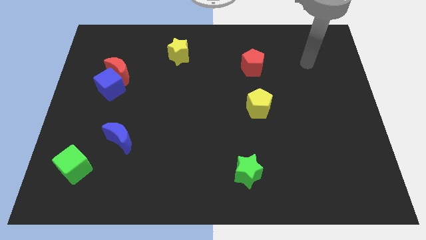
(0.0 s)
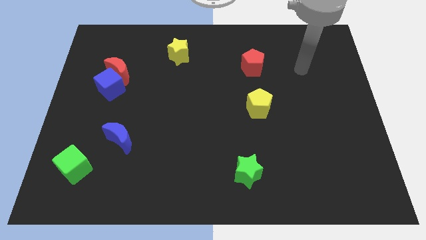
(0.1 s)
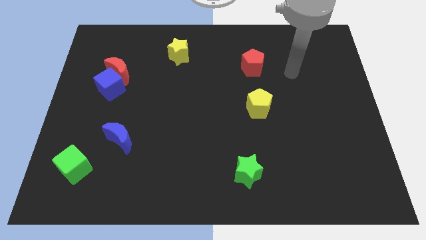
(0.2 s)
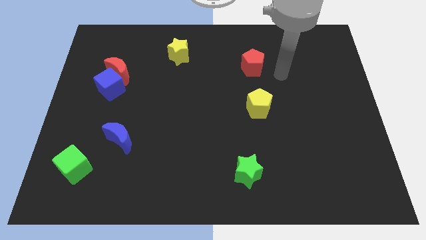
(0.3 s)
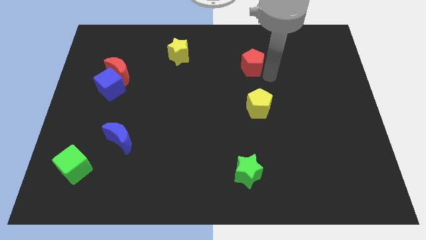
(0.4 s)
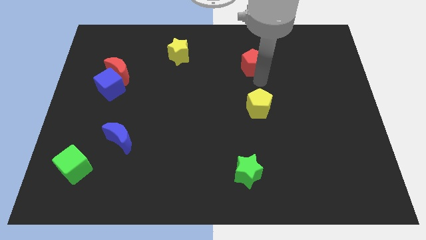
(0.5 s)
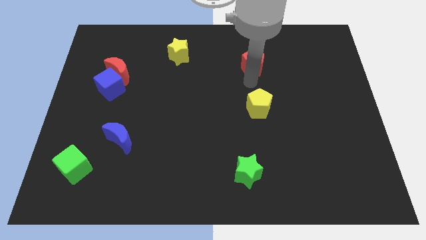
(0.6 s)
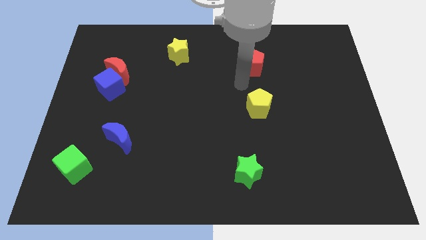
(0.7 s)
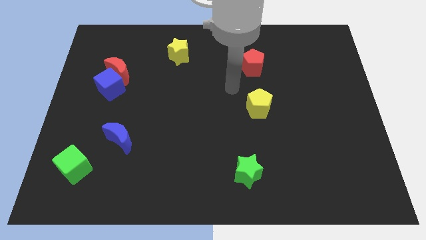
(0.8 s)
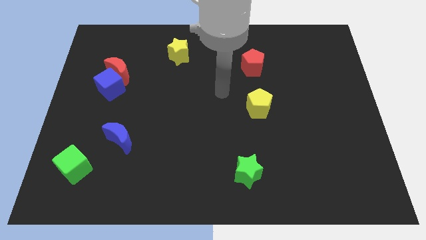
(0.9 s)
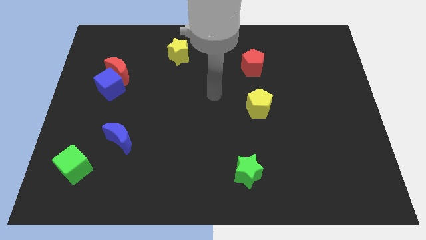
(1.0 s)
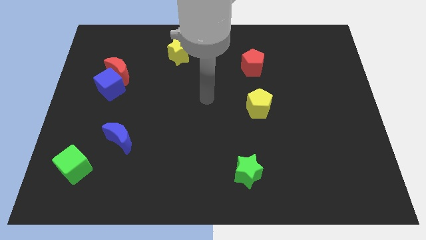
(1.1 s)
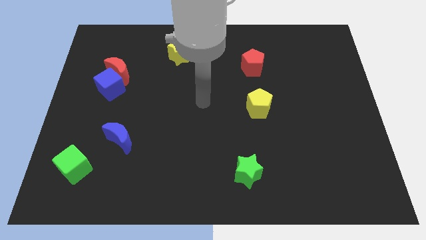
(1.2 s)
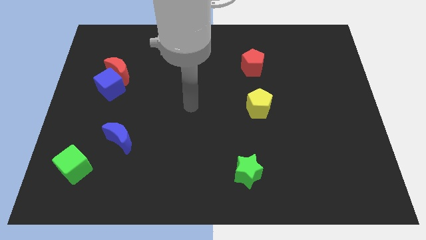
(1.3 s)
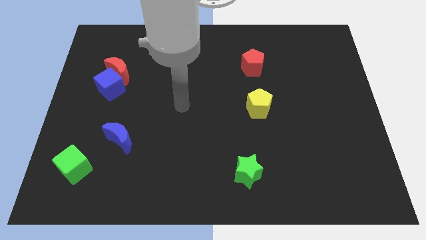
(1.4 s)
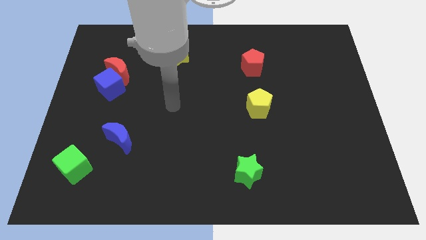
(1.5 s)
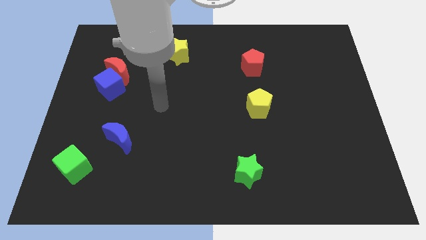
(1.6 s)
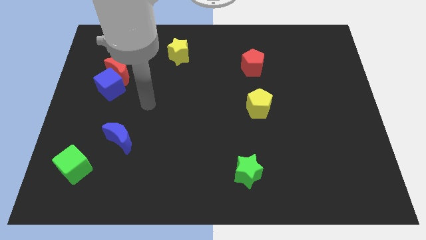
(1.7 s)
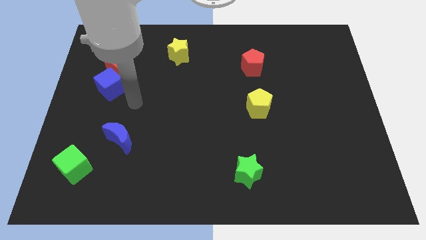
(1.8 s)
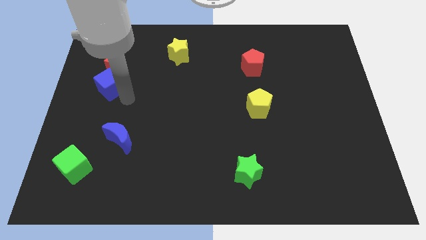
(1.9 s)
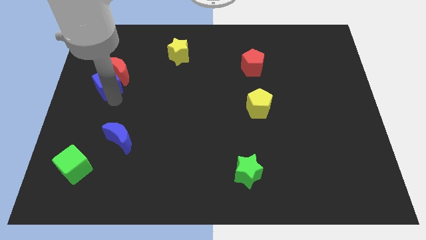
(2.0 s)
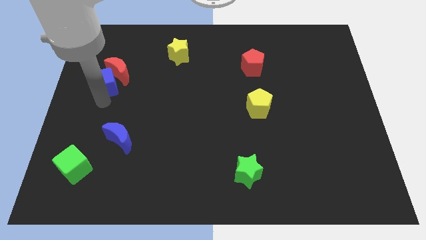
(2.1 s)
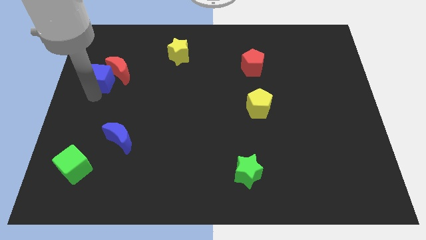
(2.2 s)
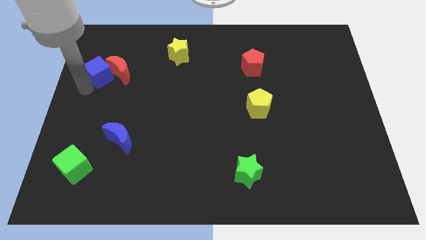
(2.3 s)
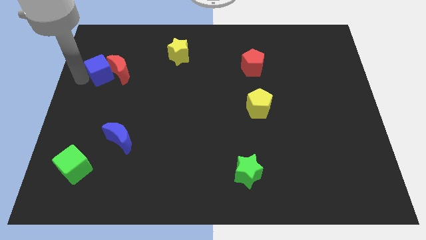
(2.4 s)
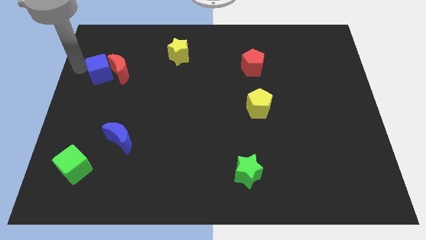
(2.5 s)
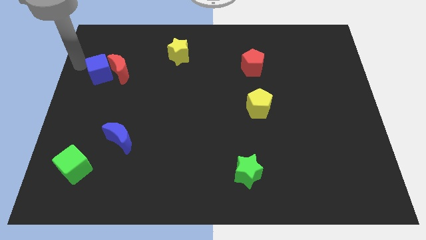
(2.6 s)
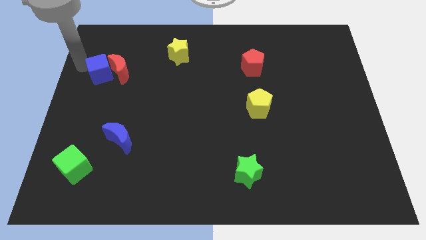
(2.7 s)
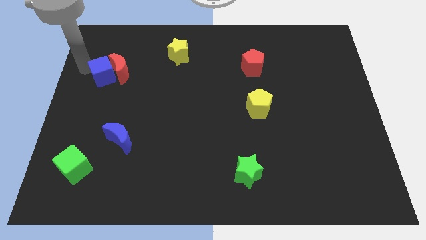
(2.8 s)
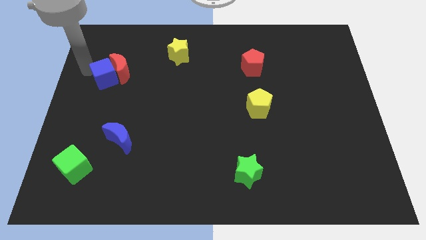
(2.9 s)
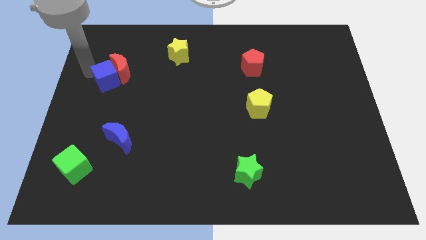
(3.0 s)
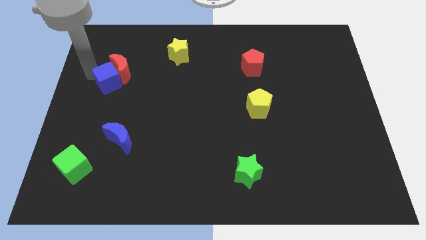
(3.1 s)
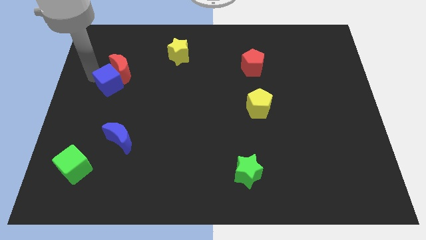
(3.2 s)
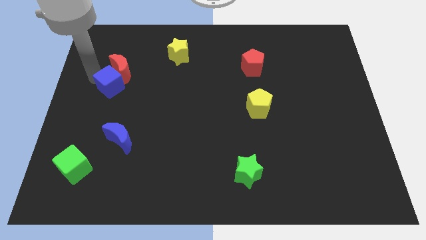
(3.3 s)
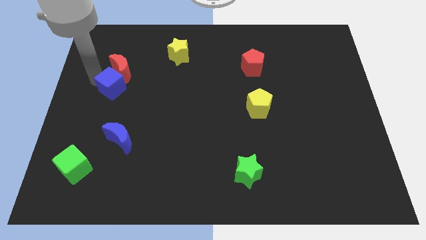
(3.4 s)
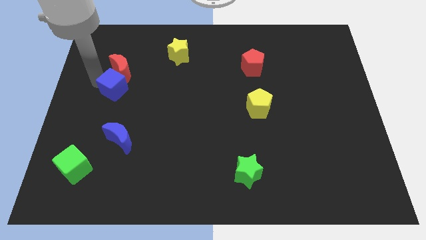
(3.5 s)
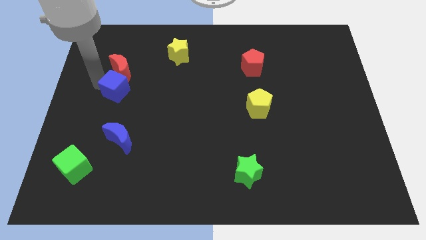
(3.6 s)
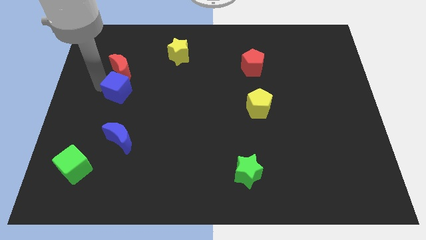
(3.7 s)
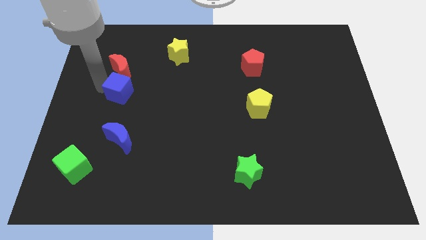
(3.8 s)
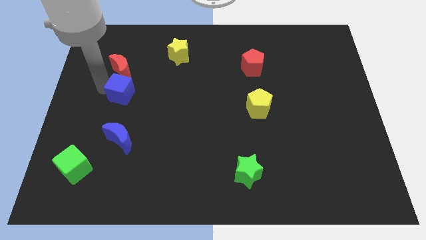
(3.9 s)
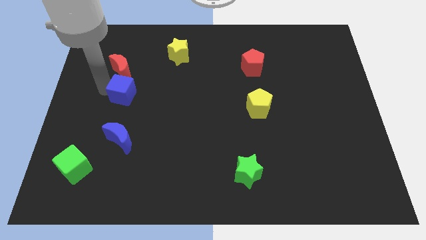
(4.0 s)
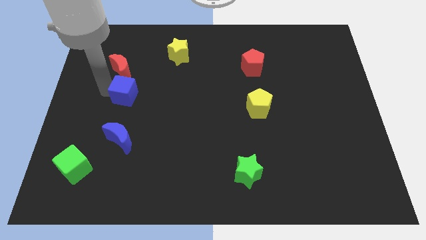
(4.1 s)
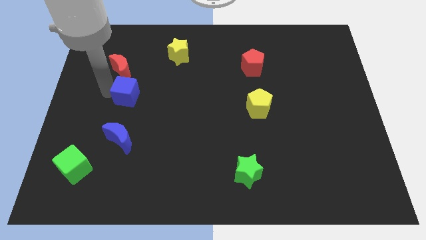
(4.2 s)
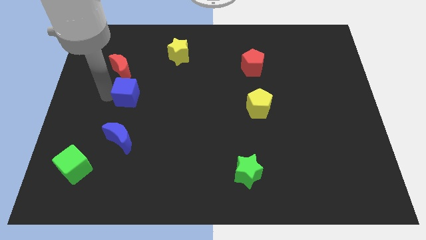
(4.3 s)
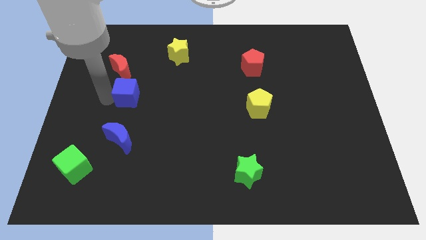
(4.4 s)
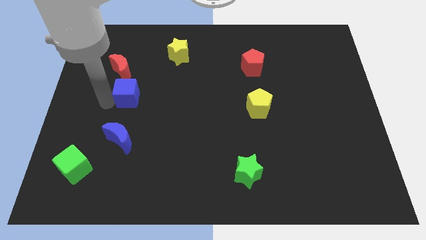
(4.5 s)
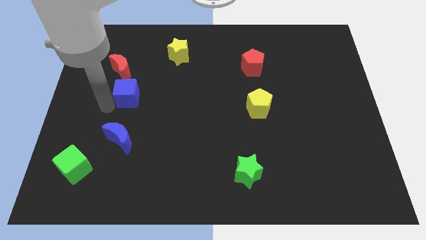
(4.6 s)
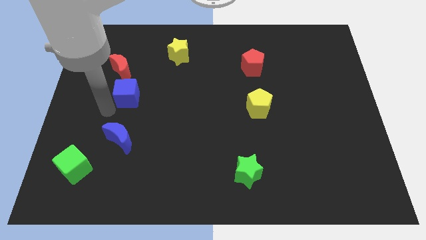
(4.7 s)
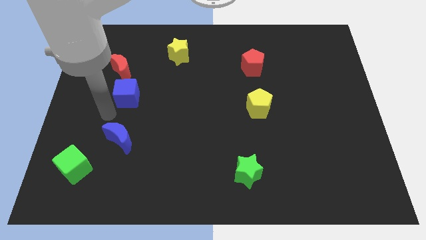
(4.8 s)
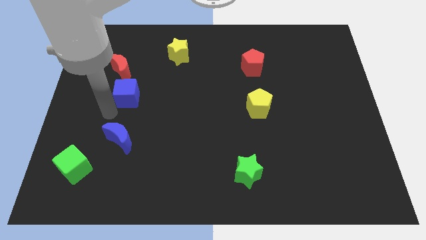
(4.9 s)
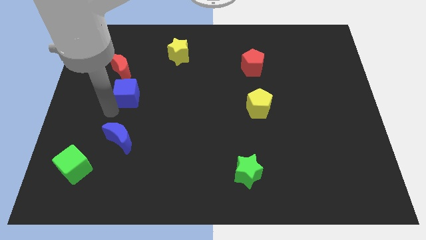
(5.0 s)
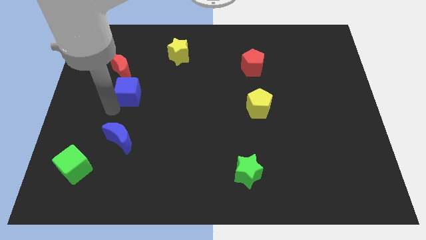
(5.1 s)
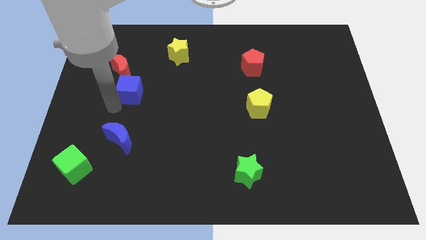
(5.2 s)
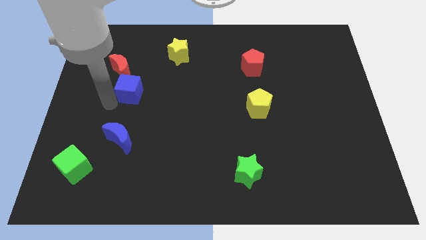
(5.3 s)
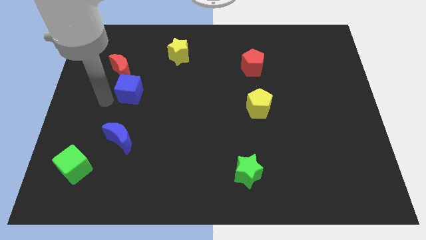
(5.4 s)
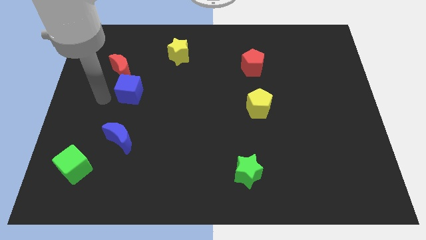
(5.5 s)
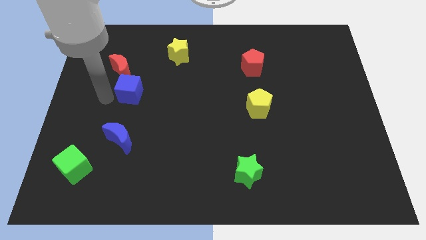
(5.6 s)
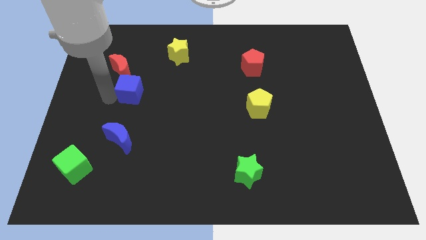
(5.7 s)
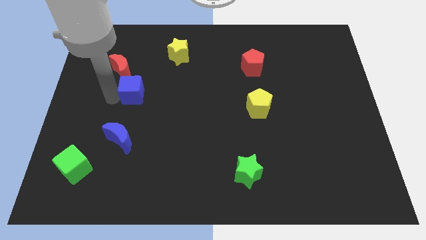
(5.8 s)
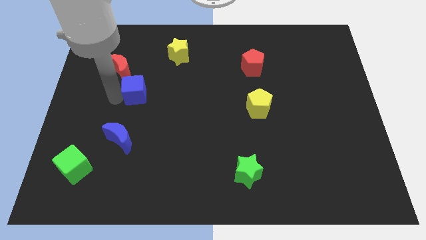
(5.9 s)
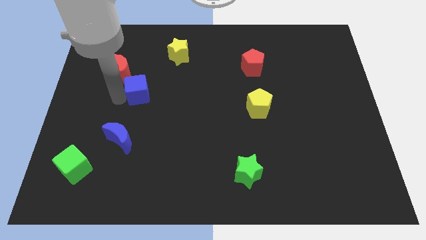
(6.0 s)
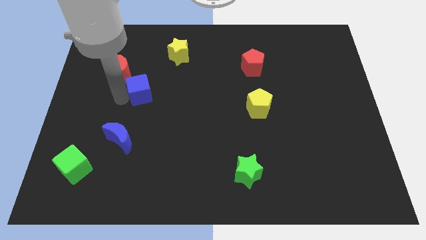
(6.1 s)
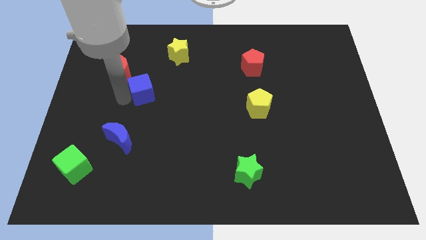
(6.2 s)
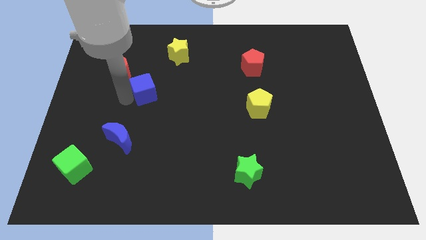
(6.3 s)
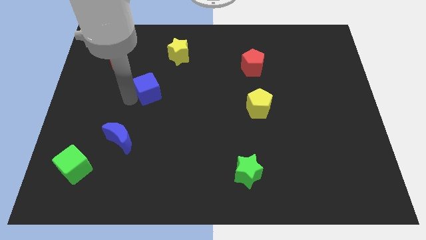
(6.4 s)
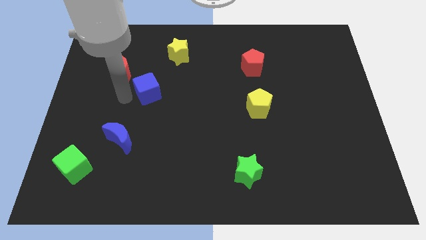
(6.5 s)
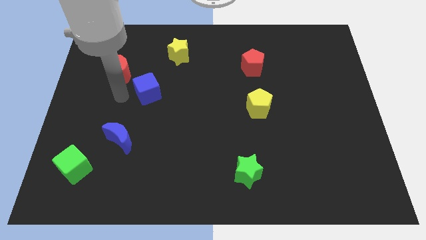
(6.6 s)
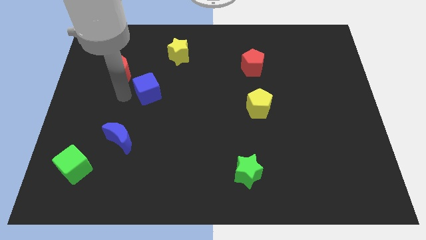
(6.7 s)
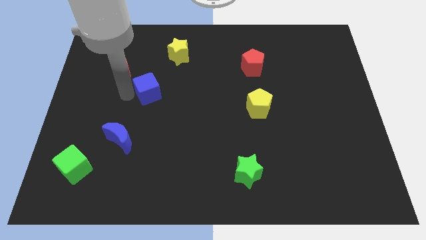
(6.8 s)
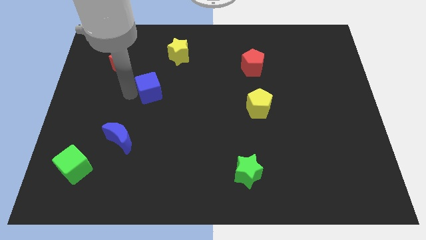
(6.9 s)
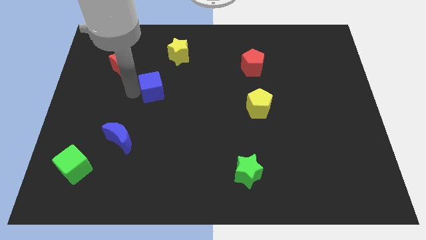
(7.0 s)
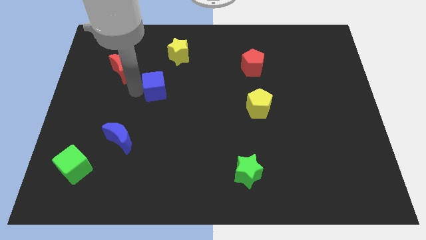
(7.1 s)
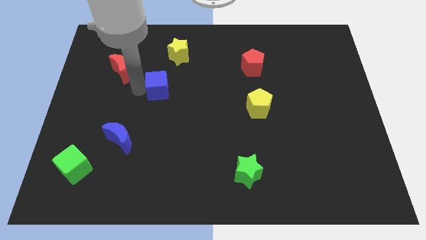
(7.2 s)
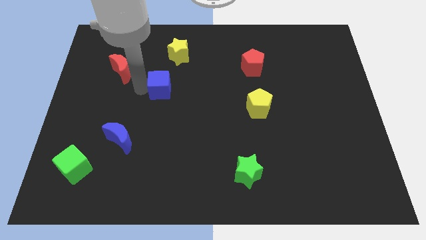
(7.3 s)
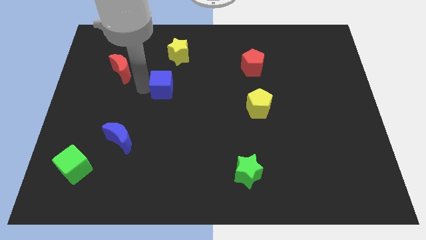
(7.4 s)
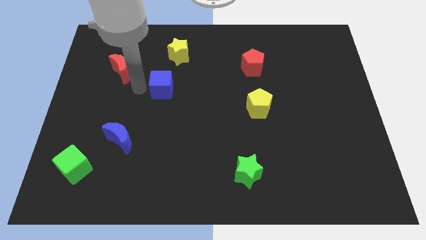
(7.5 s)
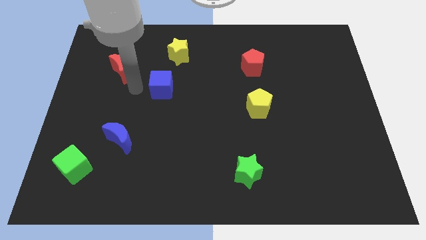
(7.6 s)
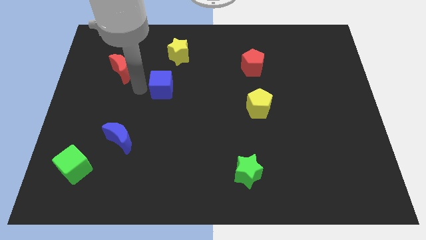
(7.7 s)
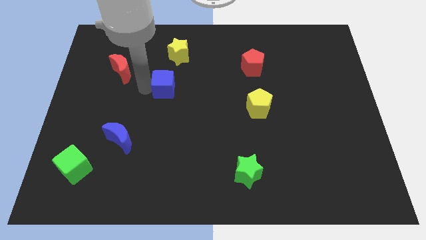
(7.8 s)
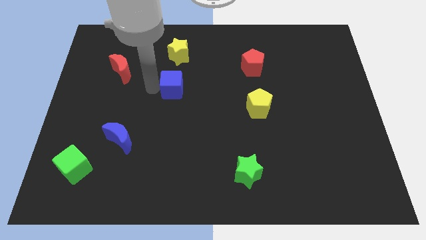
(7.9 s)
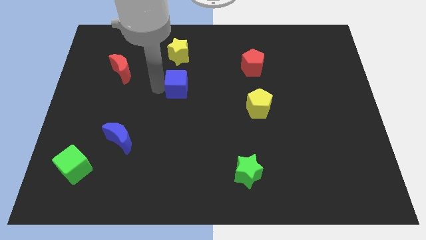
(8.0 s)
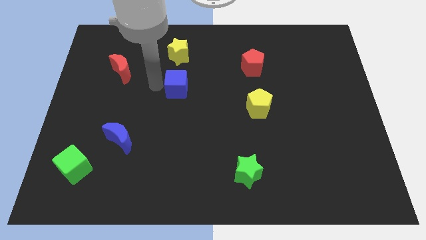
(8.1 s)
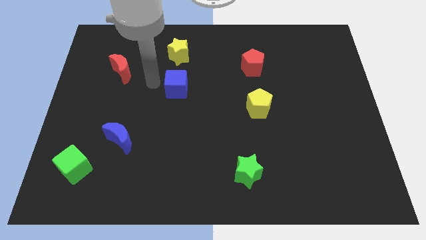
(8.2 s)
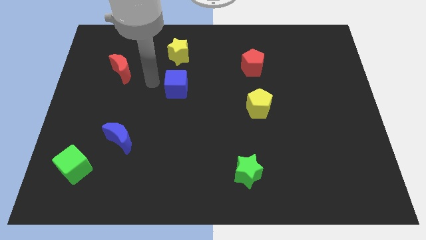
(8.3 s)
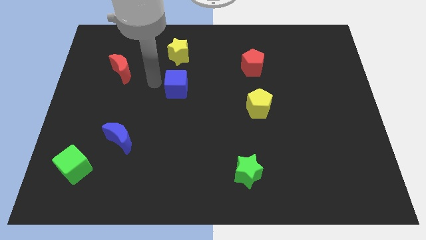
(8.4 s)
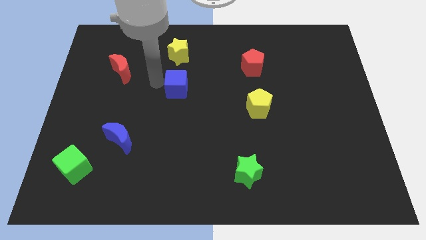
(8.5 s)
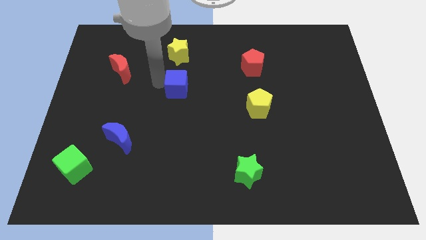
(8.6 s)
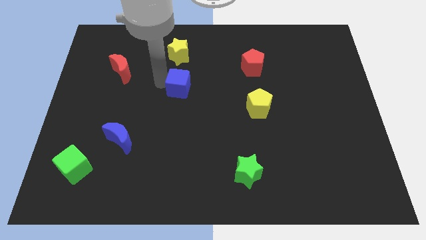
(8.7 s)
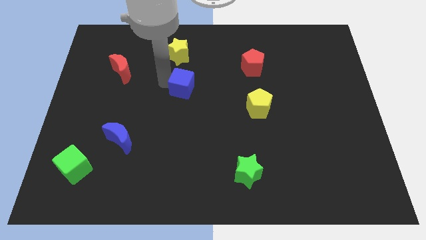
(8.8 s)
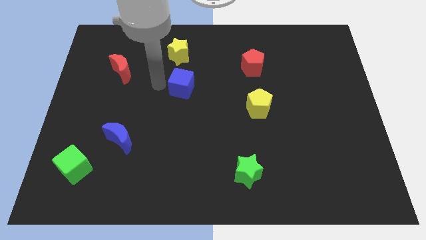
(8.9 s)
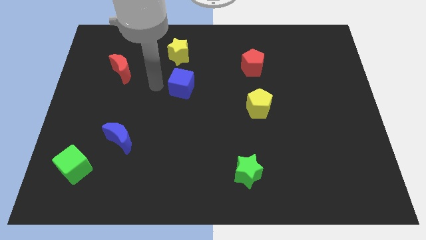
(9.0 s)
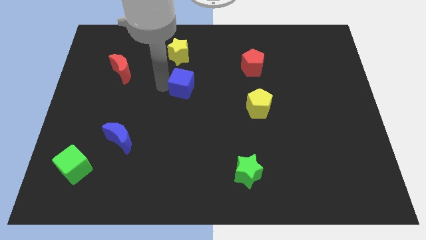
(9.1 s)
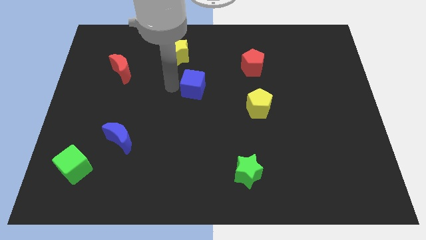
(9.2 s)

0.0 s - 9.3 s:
slide the blue cube right
